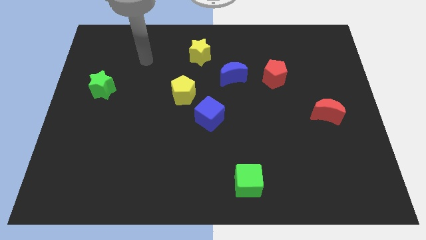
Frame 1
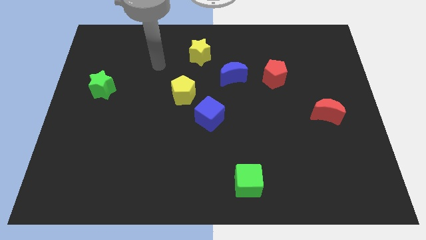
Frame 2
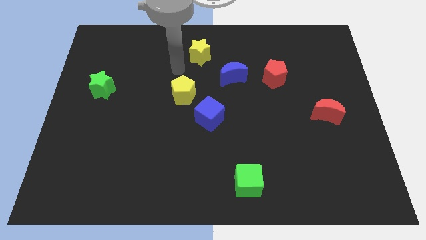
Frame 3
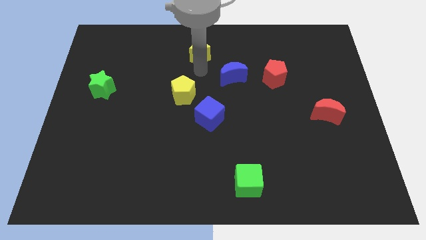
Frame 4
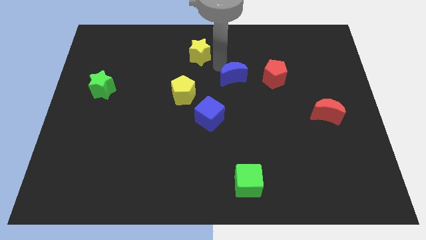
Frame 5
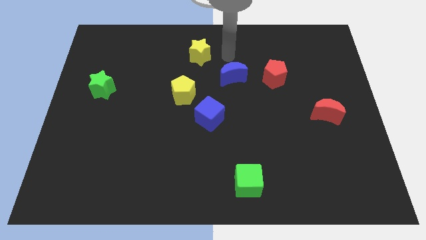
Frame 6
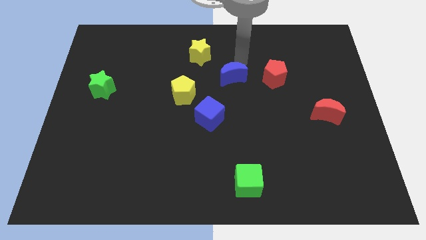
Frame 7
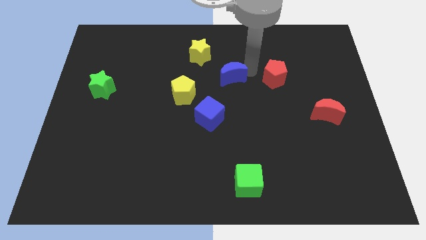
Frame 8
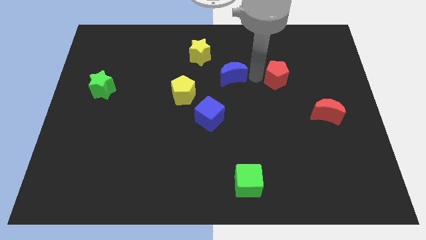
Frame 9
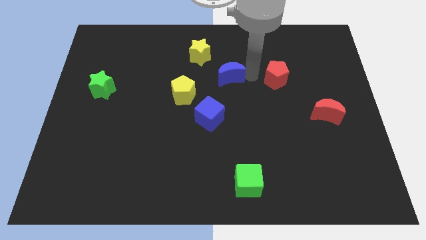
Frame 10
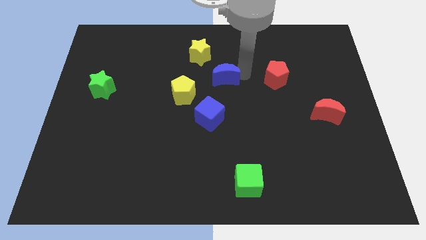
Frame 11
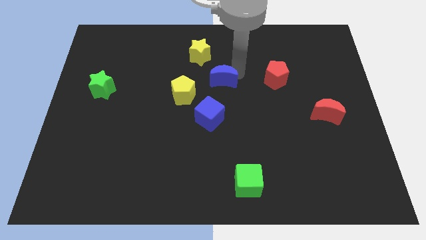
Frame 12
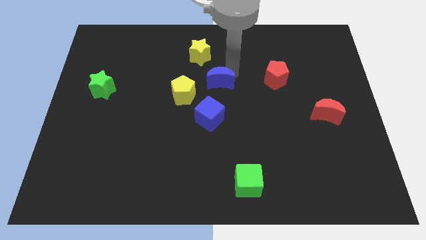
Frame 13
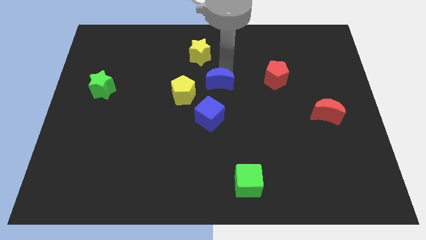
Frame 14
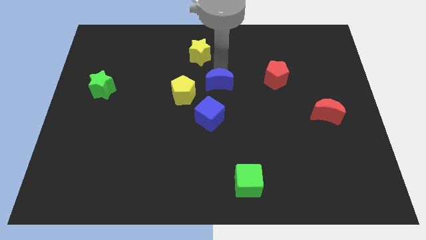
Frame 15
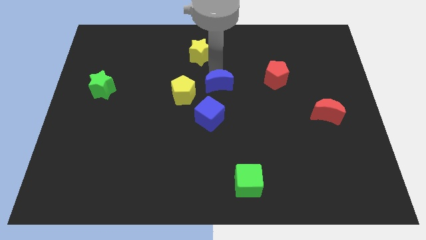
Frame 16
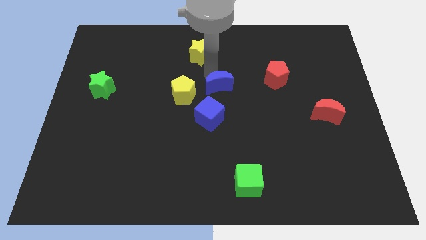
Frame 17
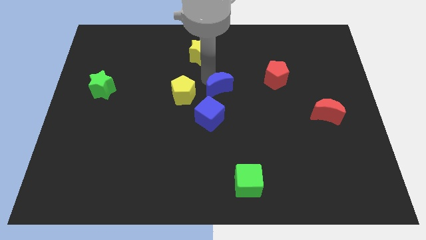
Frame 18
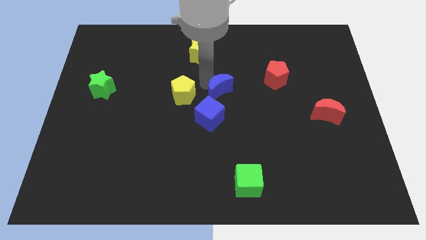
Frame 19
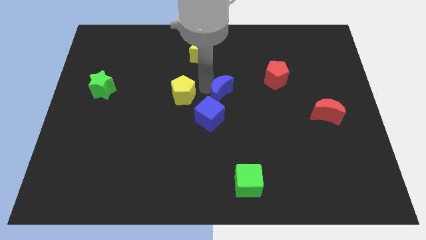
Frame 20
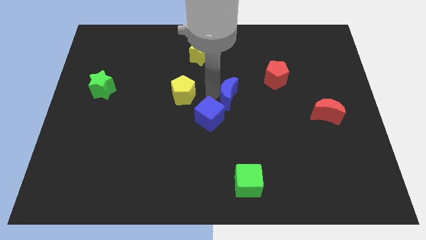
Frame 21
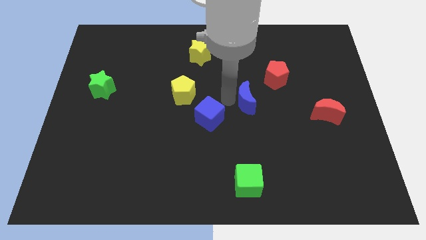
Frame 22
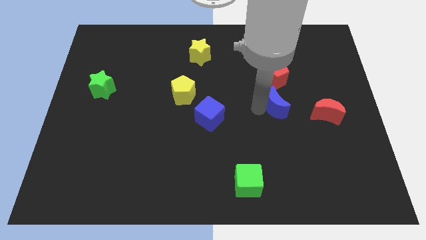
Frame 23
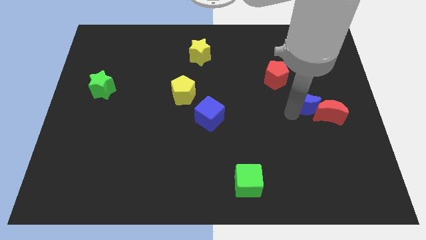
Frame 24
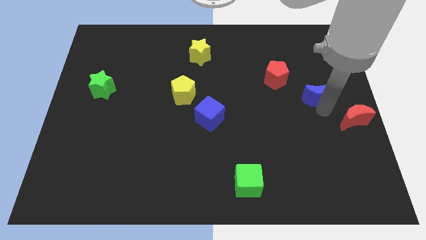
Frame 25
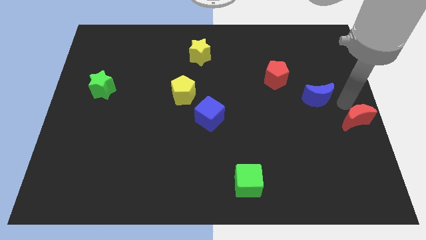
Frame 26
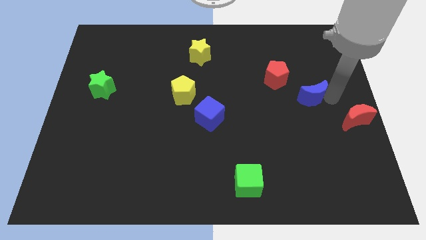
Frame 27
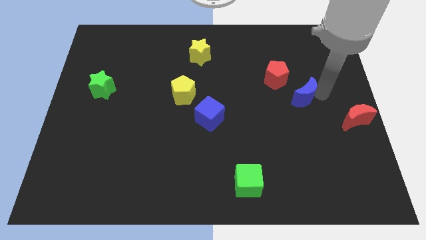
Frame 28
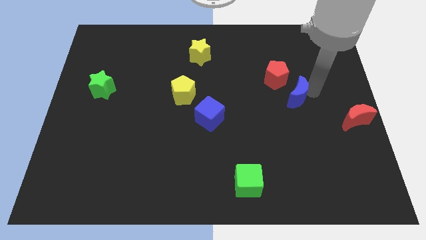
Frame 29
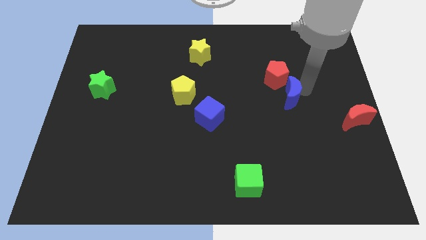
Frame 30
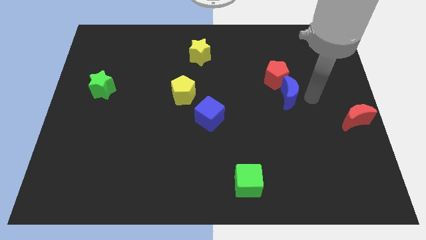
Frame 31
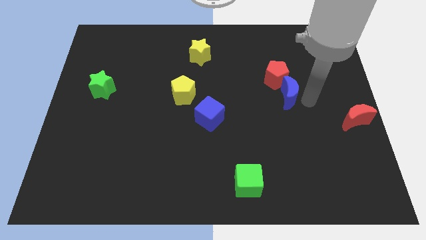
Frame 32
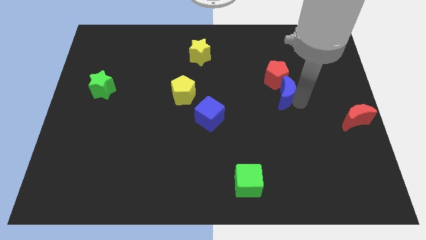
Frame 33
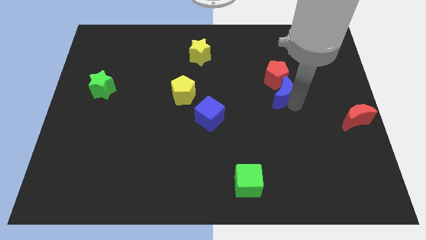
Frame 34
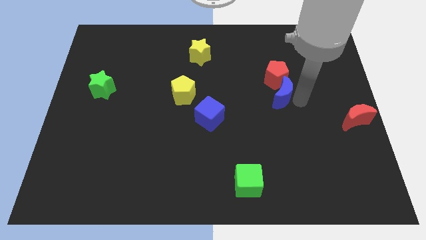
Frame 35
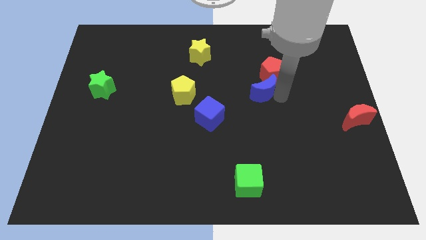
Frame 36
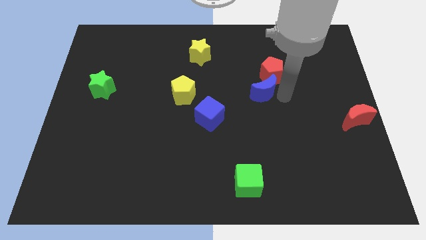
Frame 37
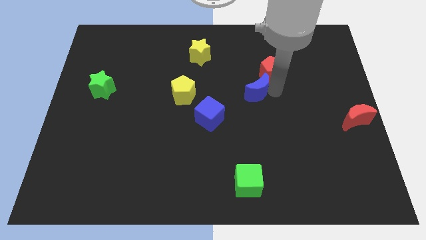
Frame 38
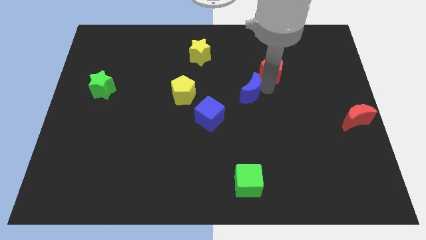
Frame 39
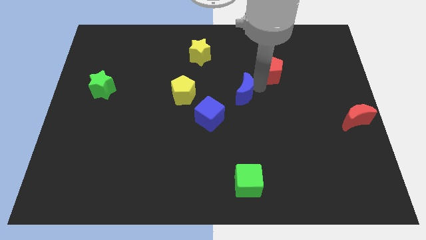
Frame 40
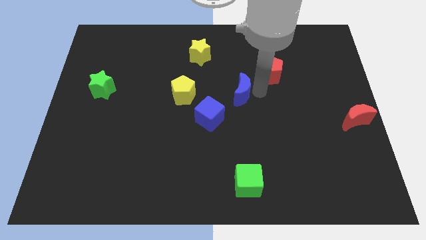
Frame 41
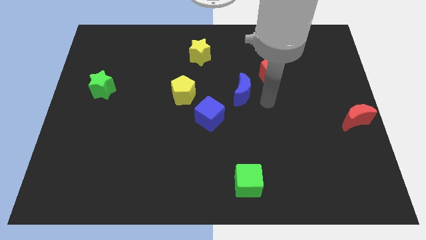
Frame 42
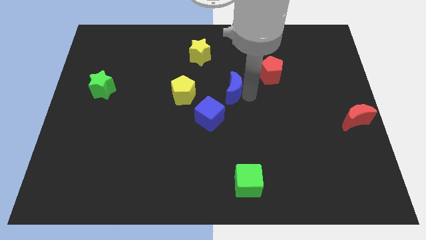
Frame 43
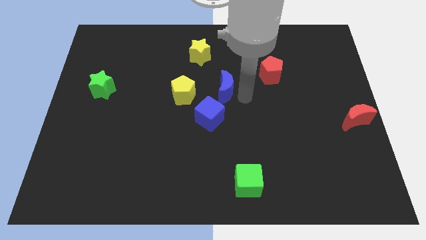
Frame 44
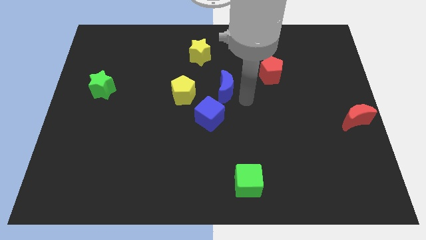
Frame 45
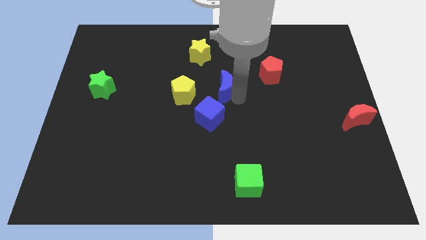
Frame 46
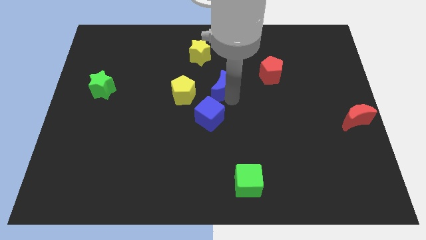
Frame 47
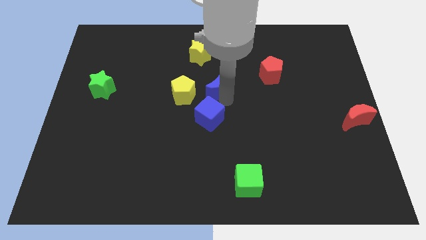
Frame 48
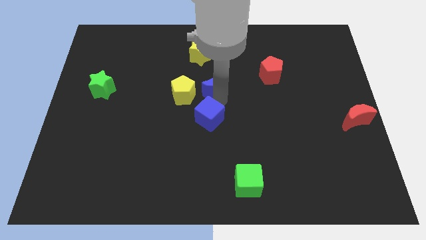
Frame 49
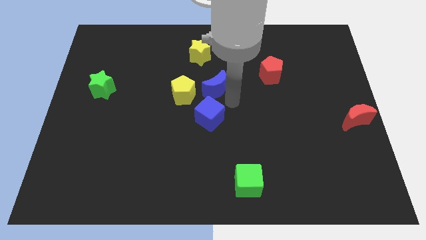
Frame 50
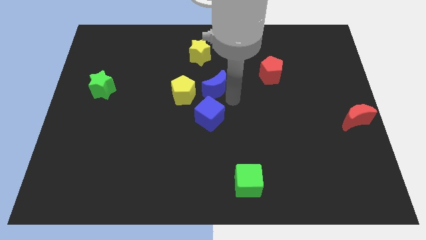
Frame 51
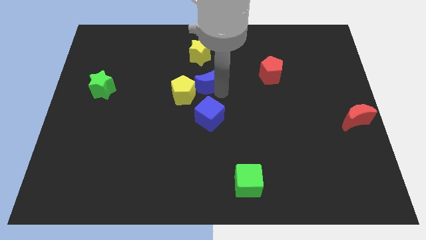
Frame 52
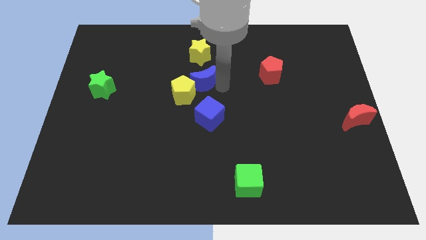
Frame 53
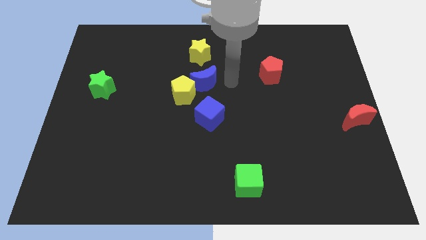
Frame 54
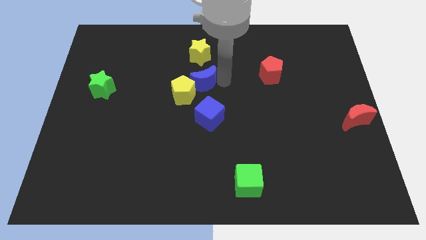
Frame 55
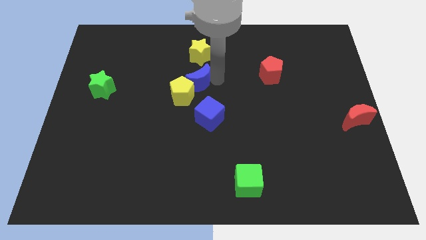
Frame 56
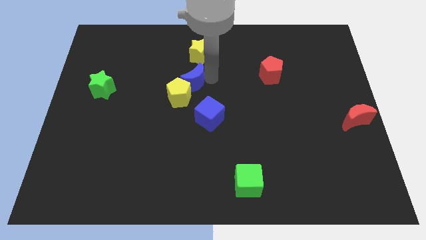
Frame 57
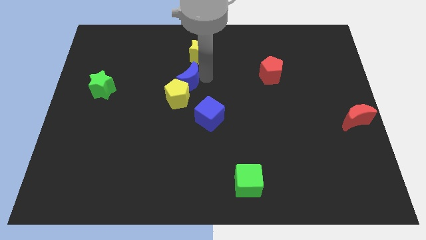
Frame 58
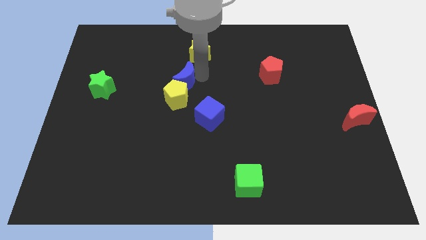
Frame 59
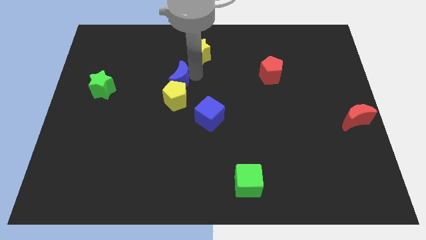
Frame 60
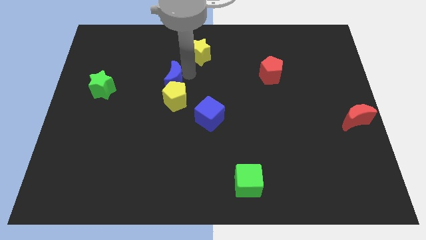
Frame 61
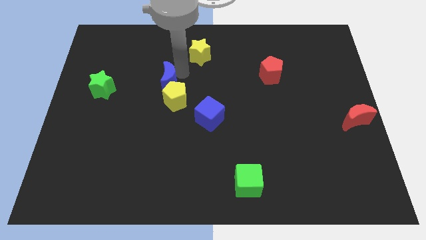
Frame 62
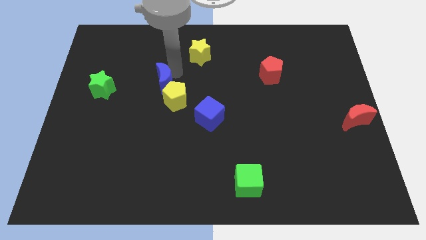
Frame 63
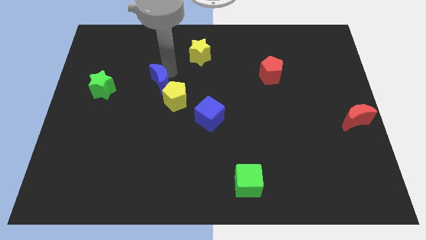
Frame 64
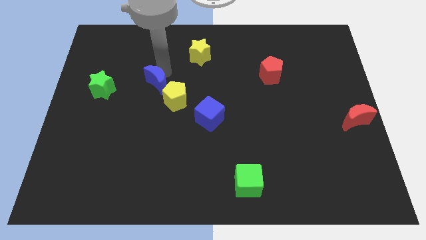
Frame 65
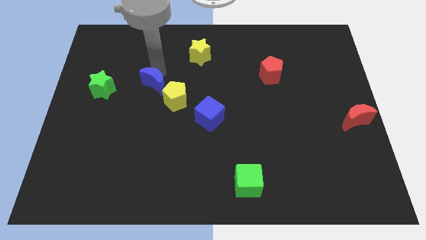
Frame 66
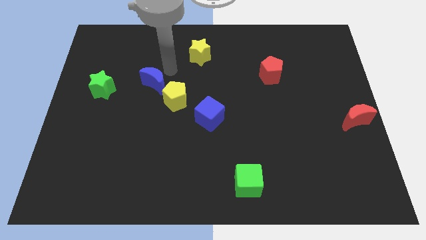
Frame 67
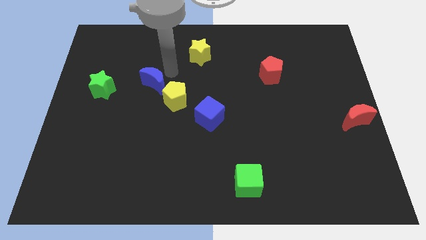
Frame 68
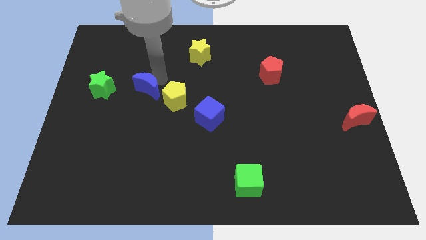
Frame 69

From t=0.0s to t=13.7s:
put the blue moon just left of the yellow pentagon

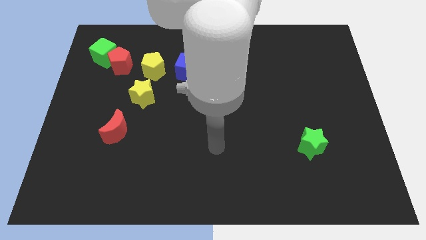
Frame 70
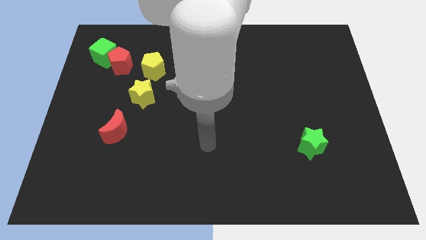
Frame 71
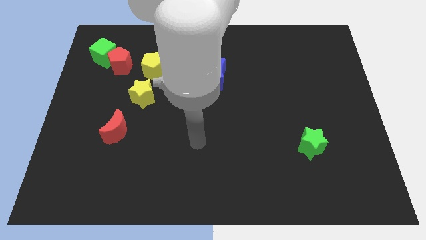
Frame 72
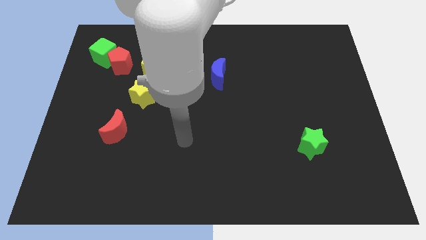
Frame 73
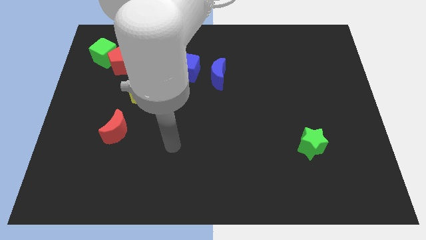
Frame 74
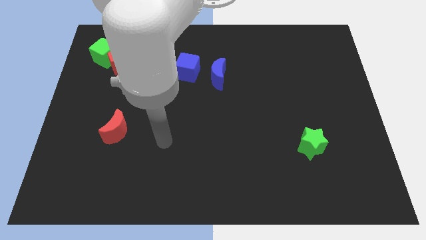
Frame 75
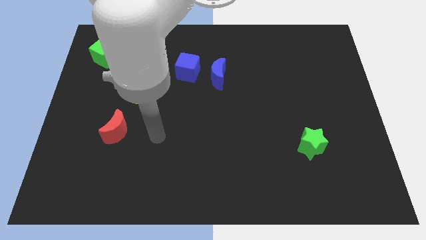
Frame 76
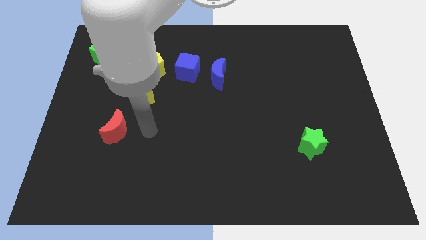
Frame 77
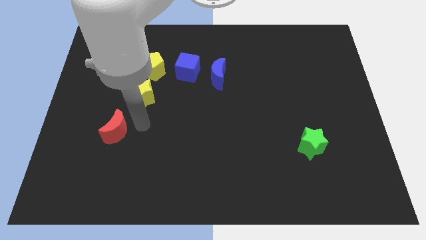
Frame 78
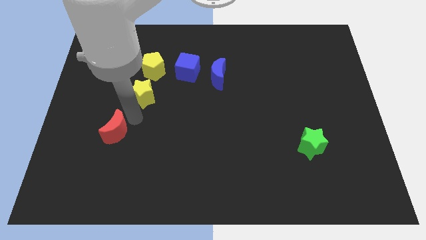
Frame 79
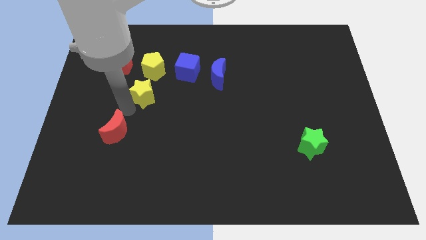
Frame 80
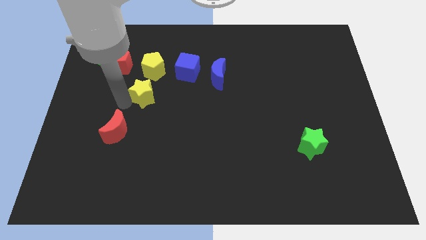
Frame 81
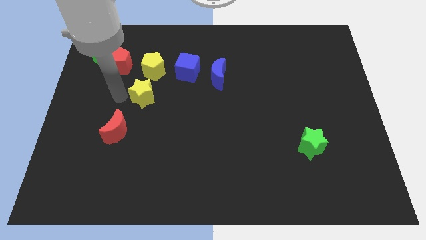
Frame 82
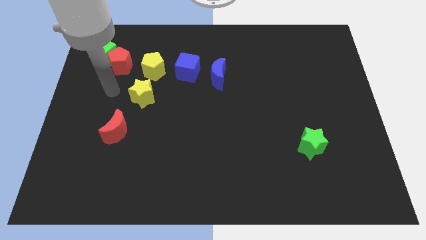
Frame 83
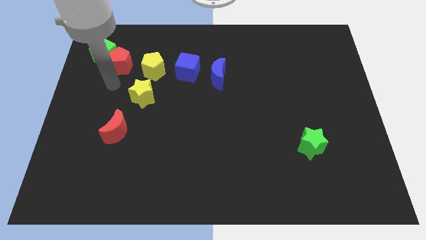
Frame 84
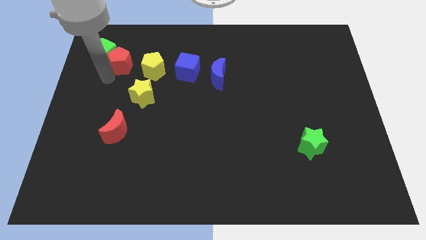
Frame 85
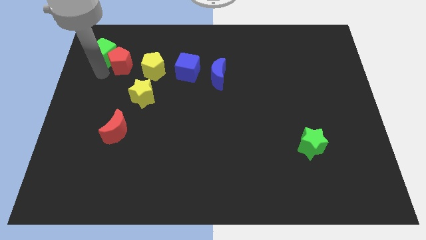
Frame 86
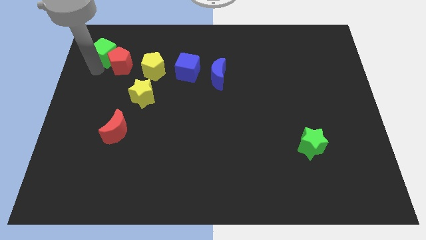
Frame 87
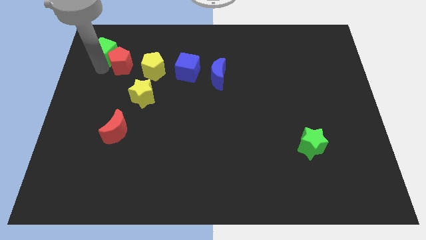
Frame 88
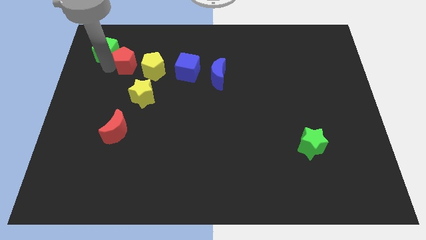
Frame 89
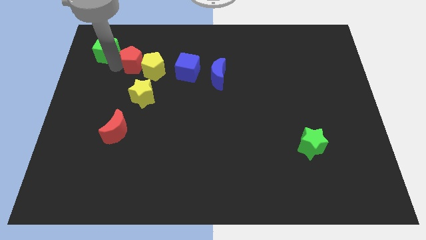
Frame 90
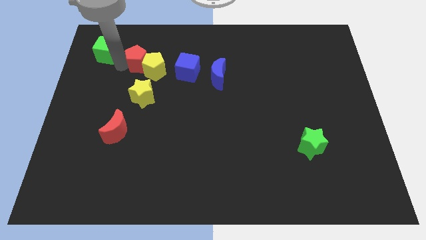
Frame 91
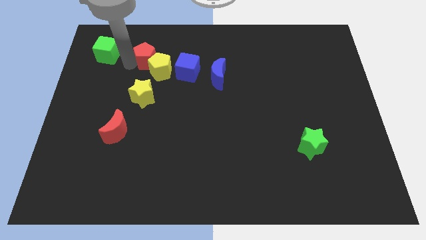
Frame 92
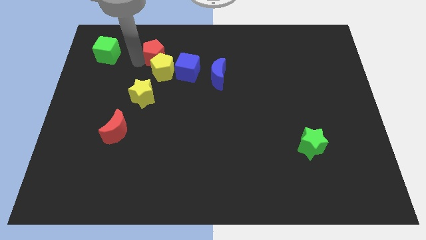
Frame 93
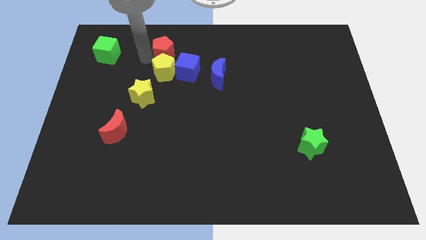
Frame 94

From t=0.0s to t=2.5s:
move the red pentagon to the top right side of the yellow pentagon
